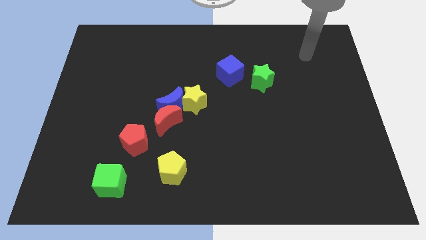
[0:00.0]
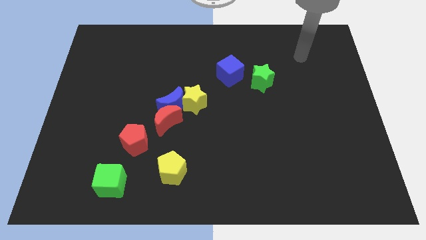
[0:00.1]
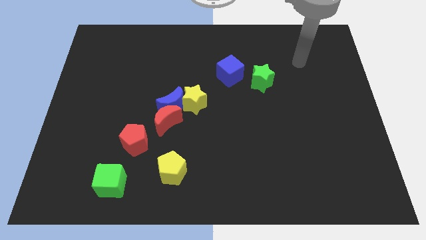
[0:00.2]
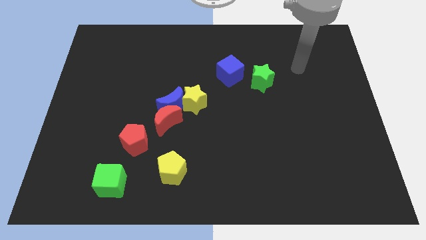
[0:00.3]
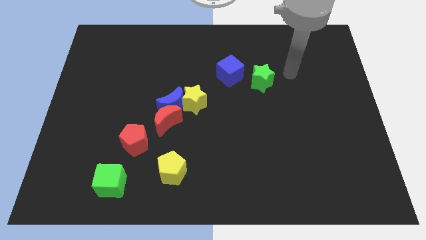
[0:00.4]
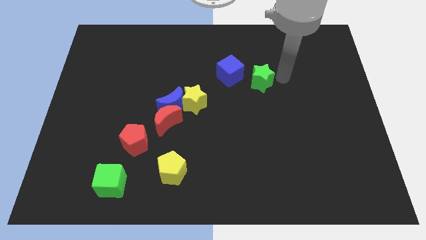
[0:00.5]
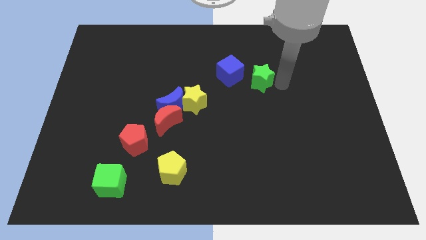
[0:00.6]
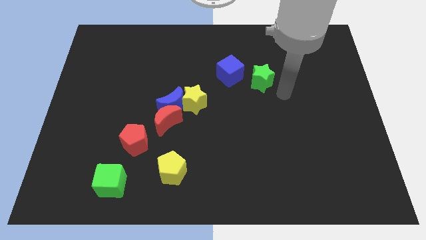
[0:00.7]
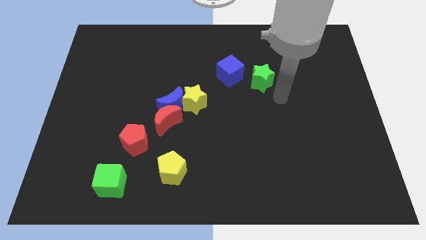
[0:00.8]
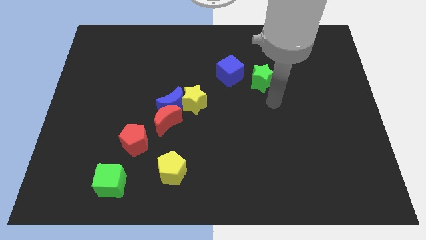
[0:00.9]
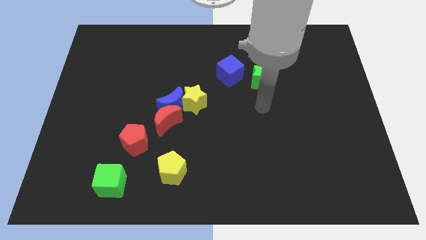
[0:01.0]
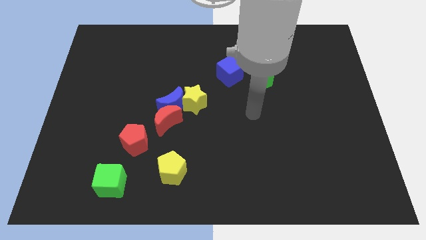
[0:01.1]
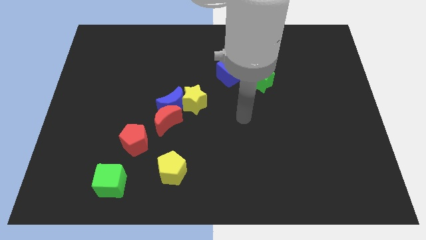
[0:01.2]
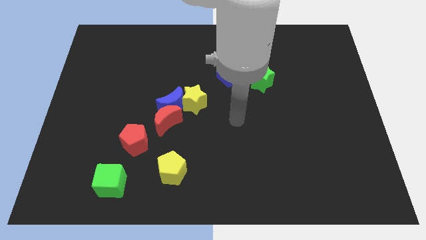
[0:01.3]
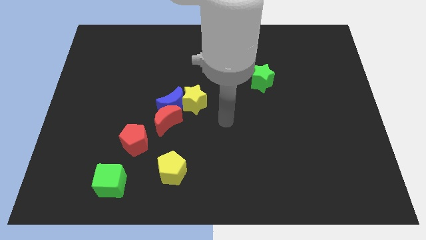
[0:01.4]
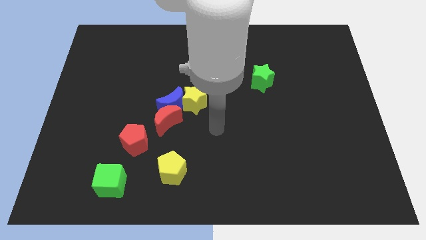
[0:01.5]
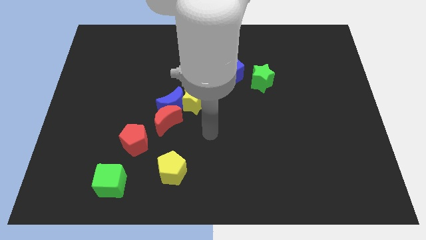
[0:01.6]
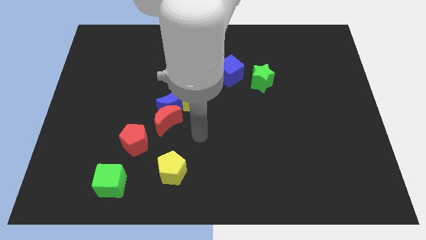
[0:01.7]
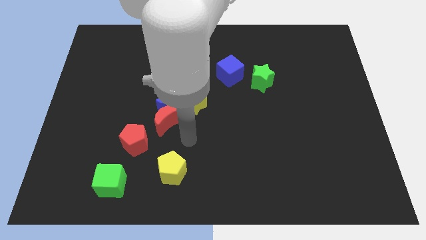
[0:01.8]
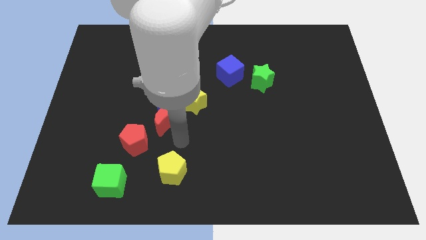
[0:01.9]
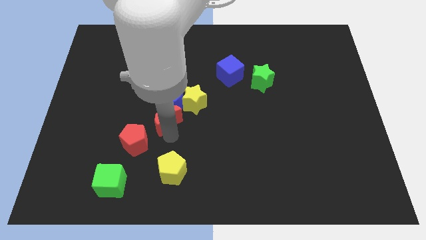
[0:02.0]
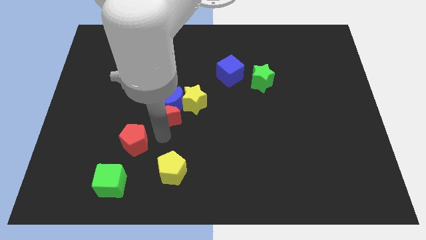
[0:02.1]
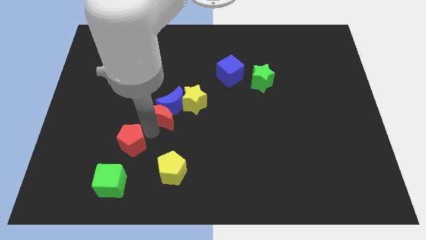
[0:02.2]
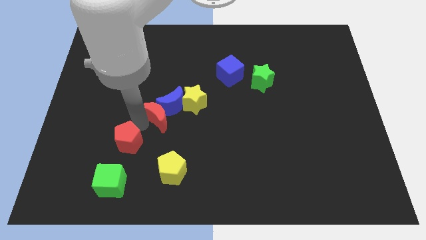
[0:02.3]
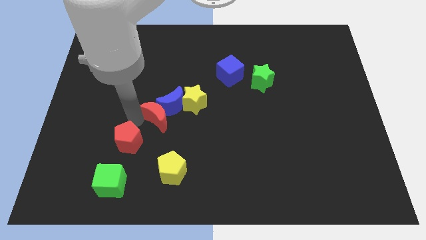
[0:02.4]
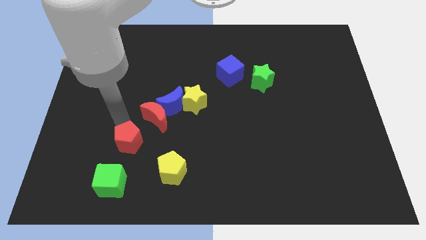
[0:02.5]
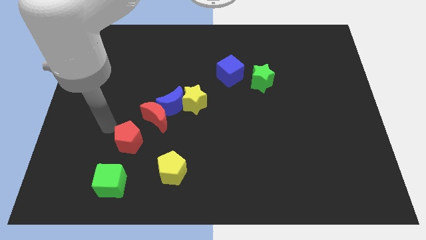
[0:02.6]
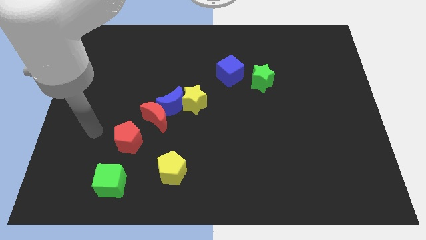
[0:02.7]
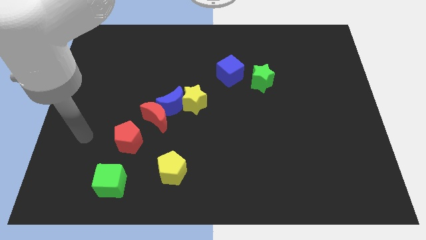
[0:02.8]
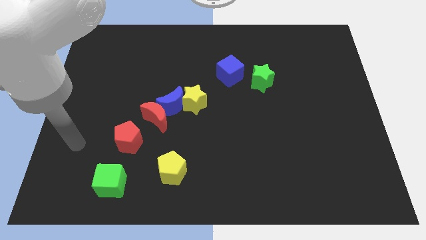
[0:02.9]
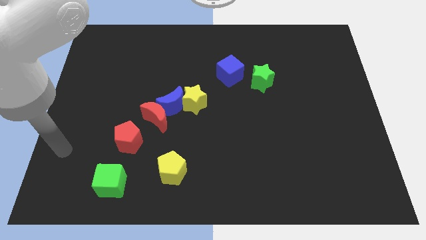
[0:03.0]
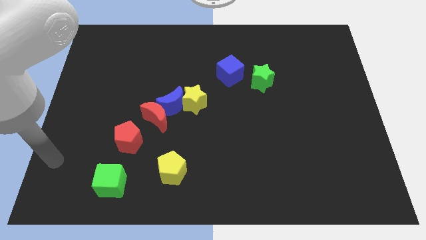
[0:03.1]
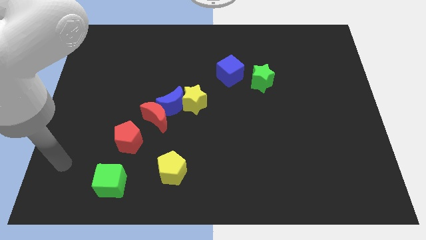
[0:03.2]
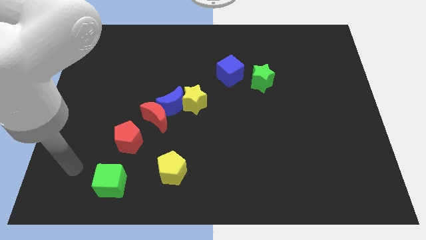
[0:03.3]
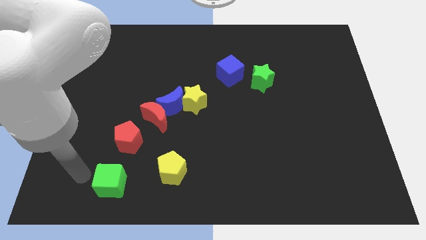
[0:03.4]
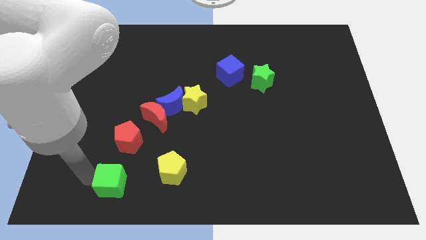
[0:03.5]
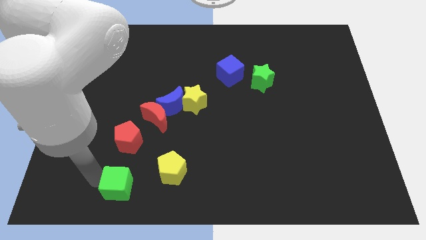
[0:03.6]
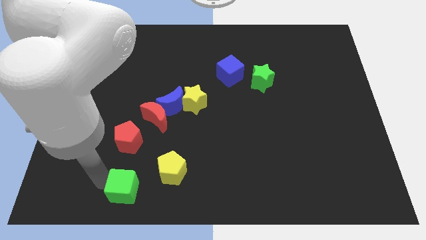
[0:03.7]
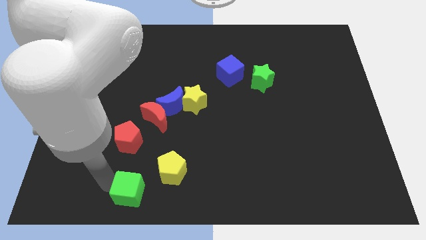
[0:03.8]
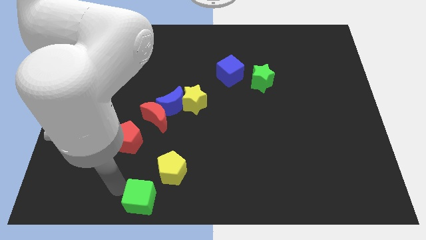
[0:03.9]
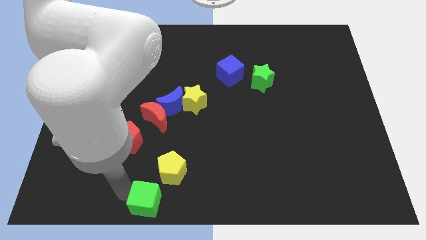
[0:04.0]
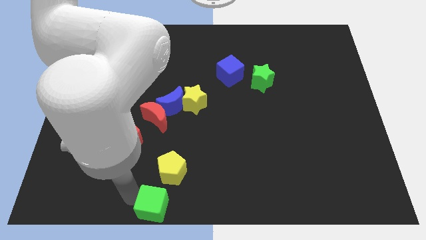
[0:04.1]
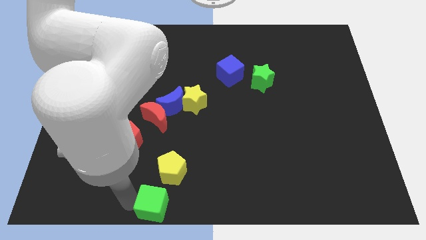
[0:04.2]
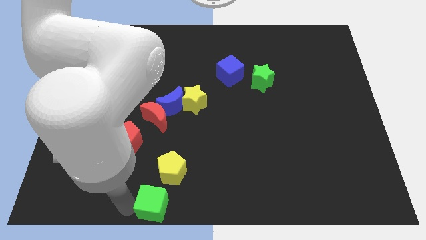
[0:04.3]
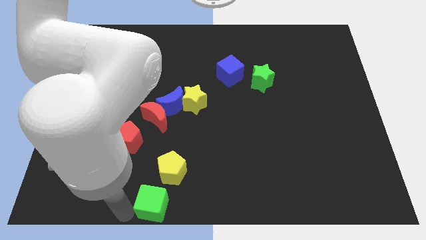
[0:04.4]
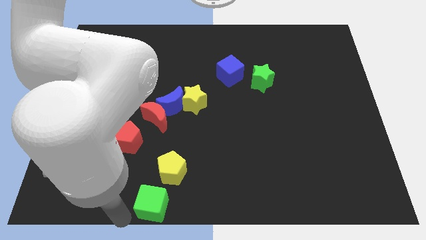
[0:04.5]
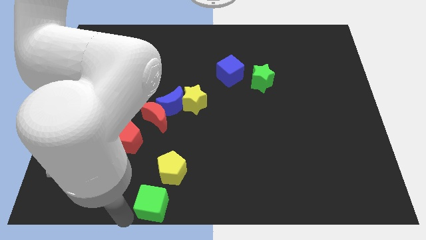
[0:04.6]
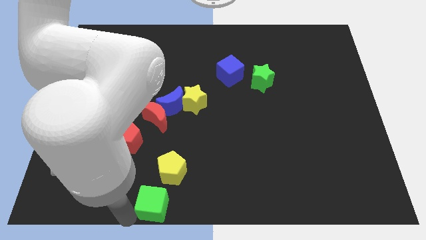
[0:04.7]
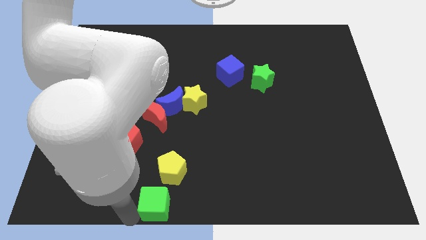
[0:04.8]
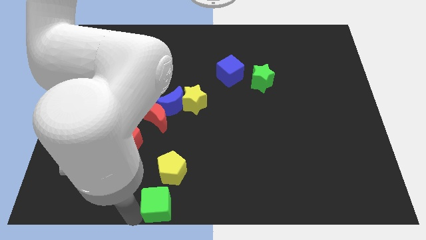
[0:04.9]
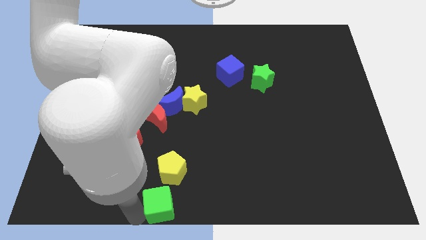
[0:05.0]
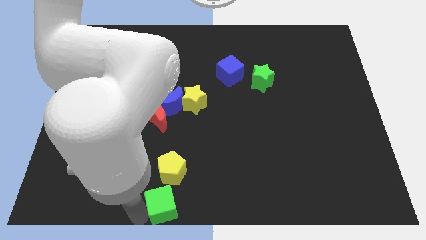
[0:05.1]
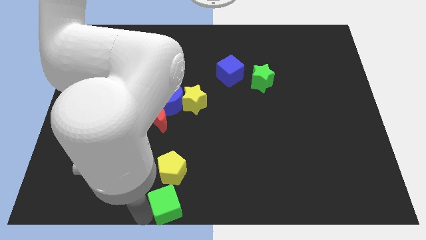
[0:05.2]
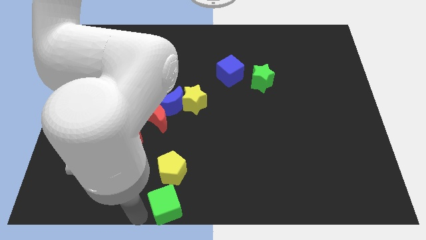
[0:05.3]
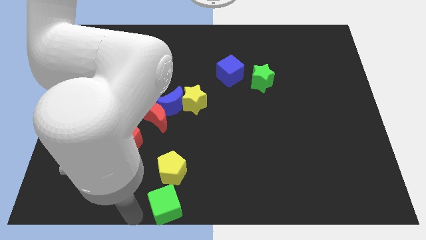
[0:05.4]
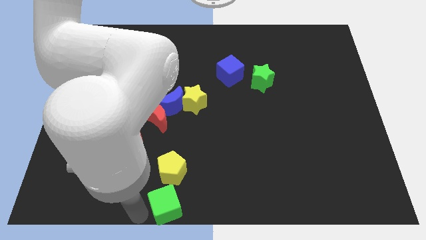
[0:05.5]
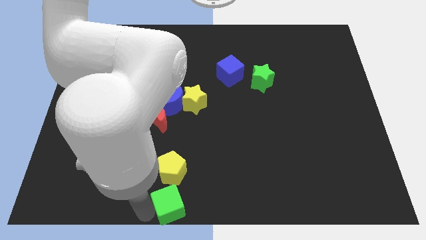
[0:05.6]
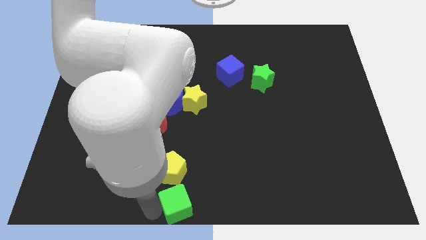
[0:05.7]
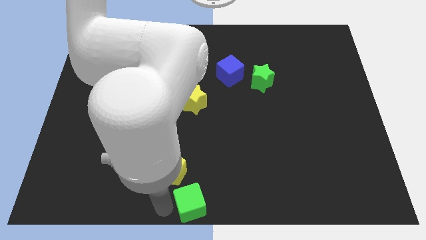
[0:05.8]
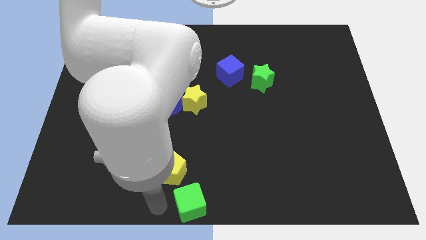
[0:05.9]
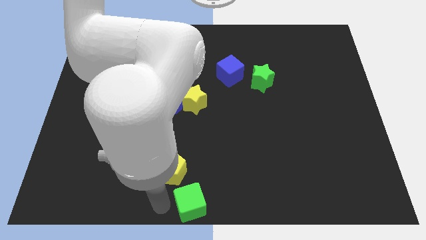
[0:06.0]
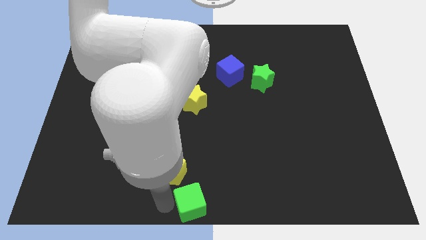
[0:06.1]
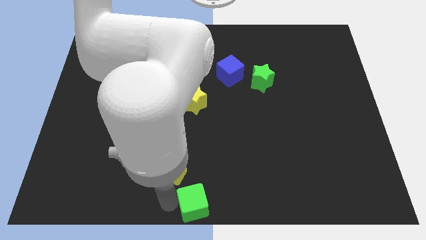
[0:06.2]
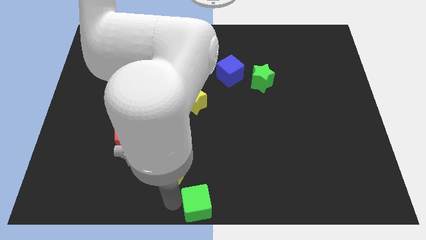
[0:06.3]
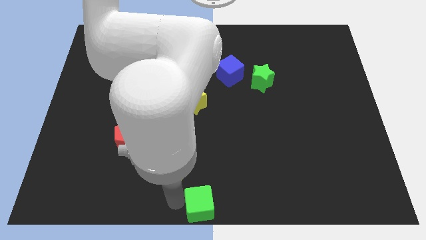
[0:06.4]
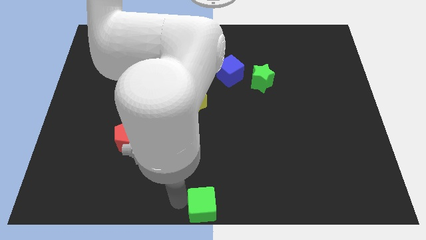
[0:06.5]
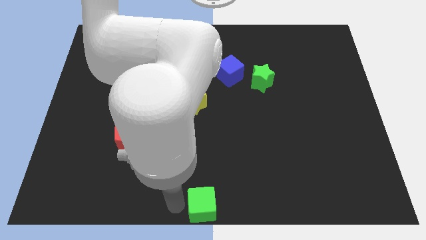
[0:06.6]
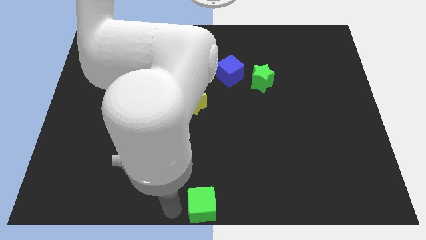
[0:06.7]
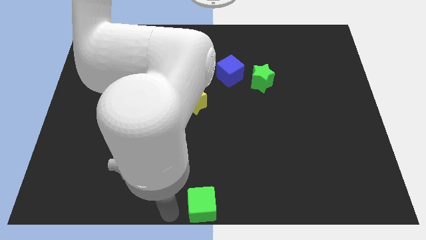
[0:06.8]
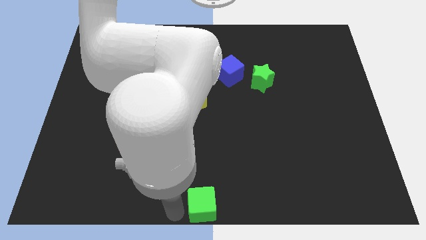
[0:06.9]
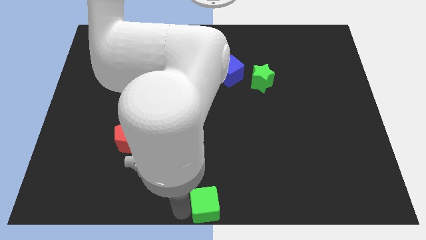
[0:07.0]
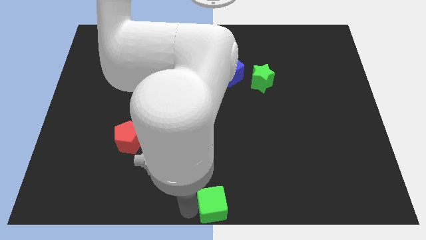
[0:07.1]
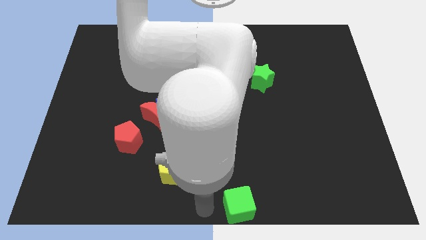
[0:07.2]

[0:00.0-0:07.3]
push the green cube right

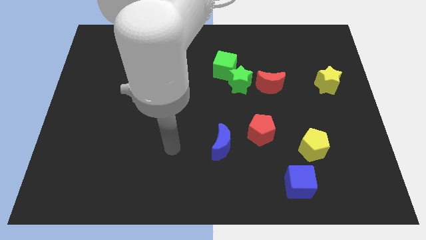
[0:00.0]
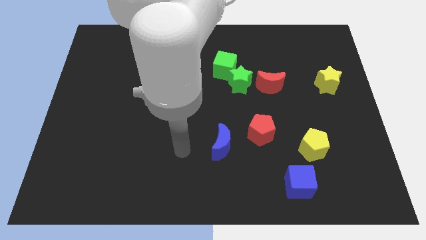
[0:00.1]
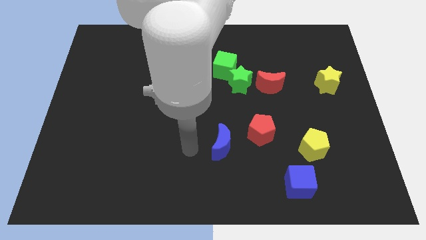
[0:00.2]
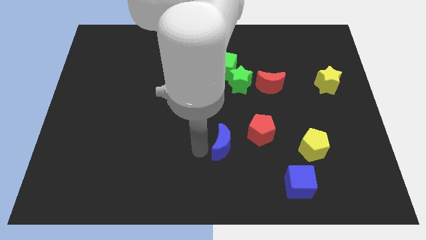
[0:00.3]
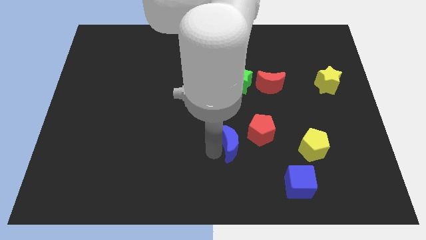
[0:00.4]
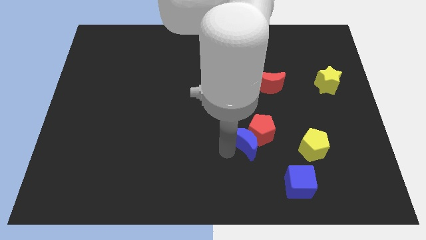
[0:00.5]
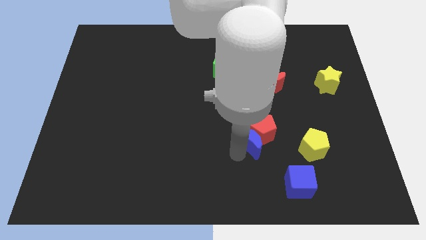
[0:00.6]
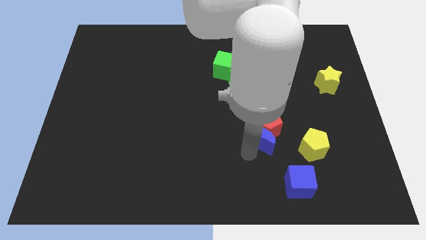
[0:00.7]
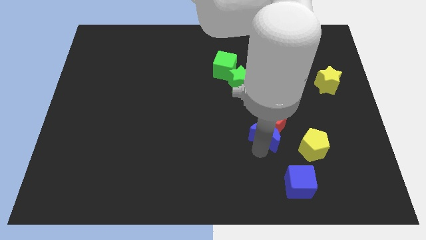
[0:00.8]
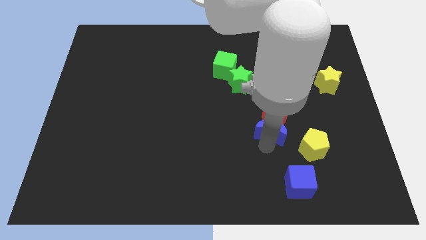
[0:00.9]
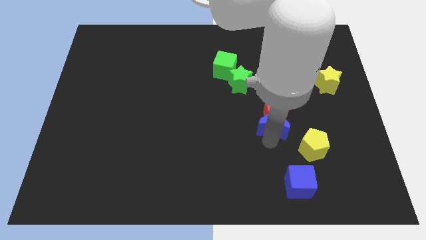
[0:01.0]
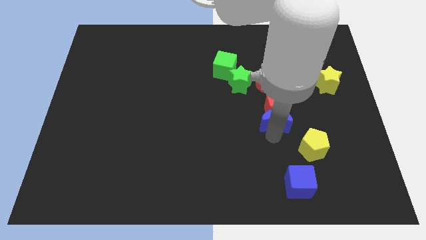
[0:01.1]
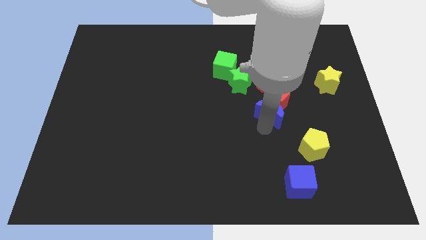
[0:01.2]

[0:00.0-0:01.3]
move the red pentagon up a bit
